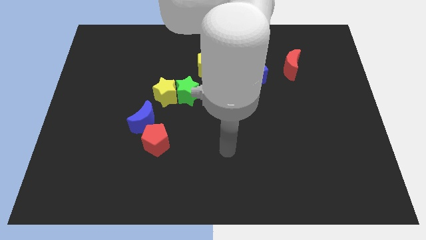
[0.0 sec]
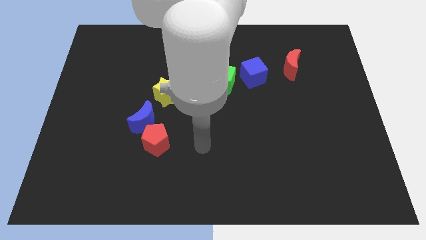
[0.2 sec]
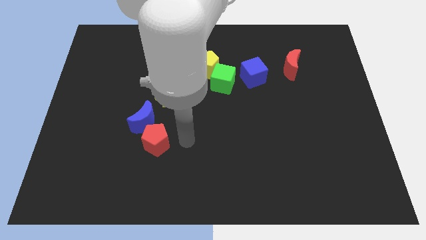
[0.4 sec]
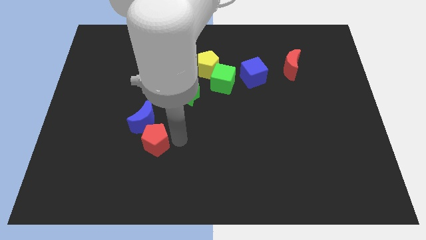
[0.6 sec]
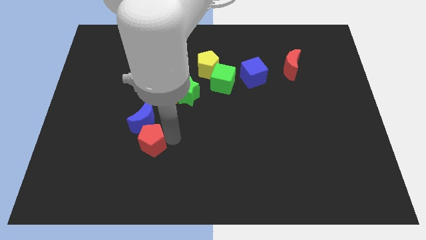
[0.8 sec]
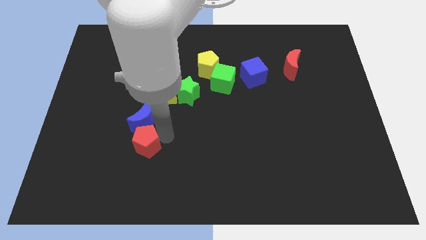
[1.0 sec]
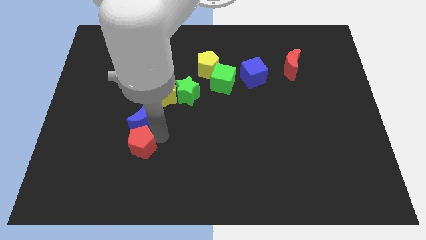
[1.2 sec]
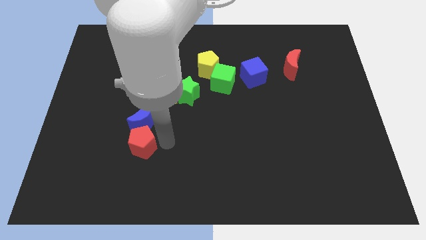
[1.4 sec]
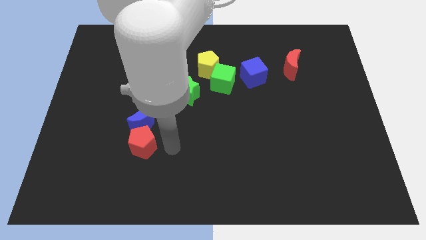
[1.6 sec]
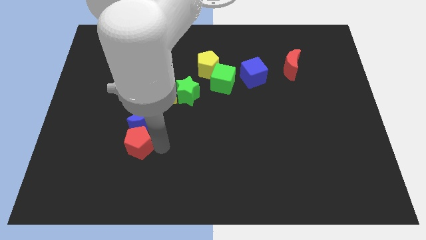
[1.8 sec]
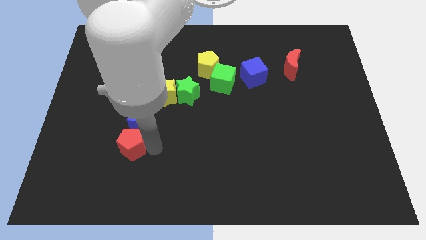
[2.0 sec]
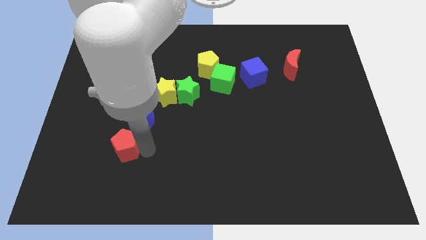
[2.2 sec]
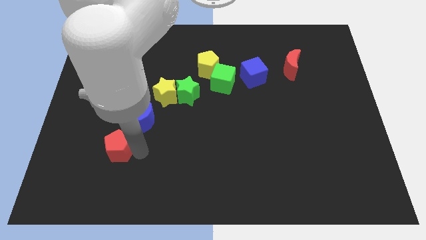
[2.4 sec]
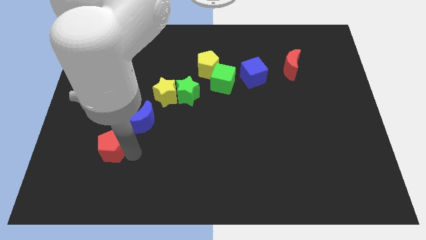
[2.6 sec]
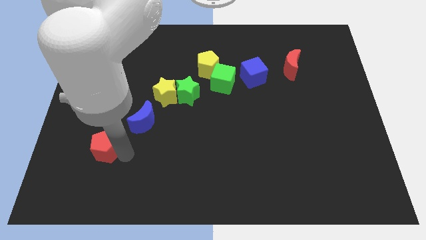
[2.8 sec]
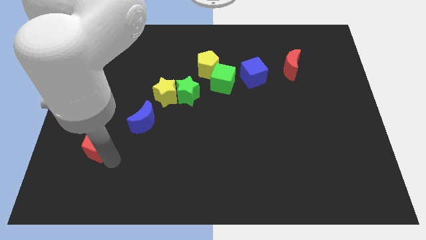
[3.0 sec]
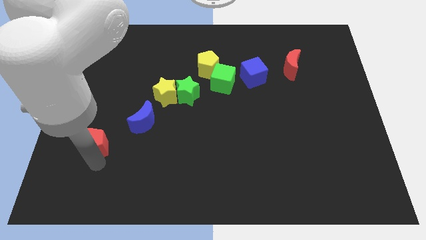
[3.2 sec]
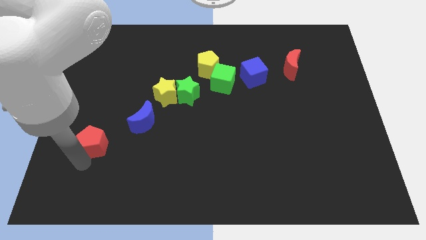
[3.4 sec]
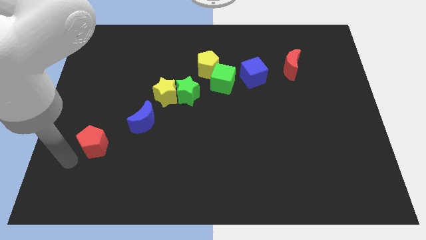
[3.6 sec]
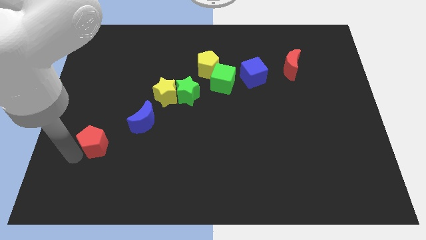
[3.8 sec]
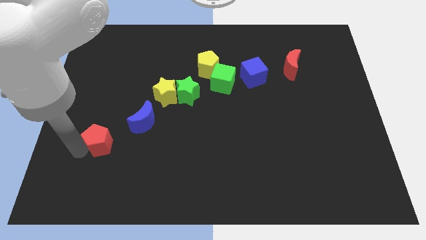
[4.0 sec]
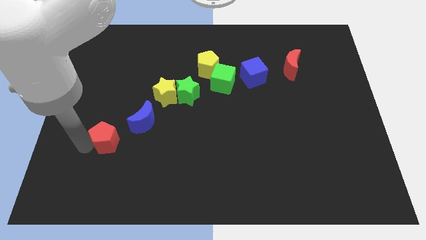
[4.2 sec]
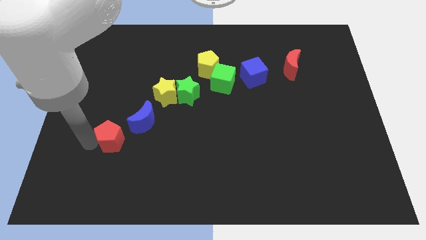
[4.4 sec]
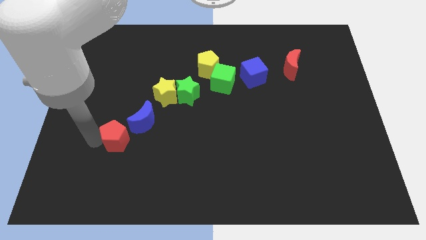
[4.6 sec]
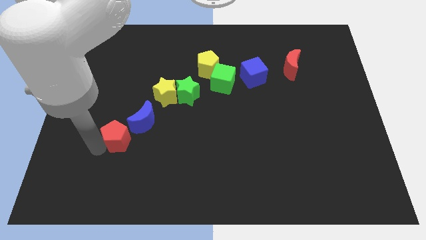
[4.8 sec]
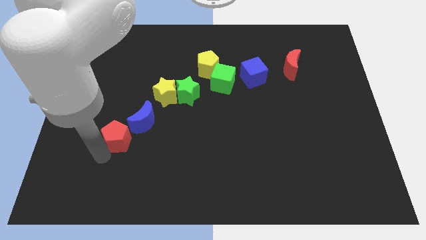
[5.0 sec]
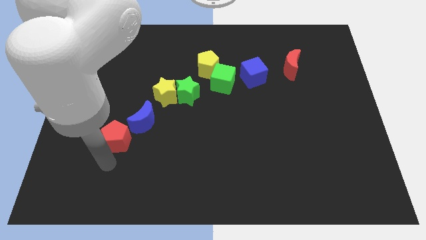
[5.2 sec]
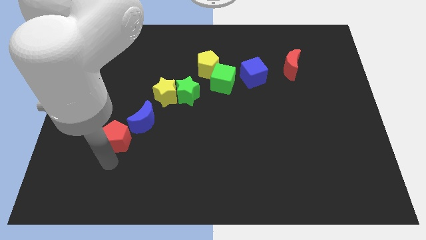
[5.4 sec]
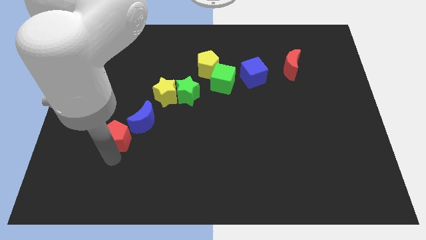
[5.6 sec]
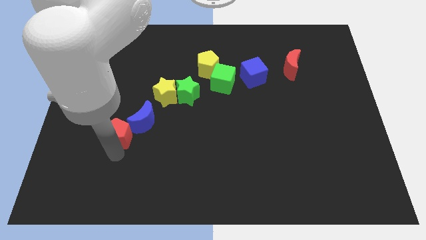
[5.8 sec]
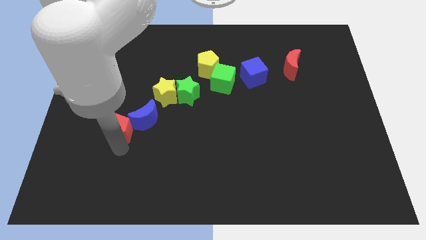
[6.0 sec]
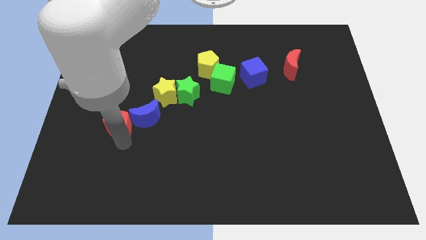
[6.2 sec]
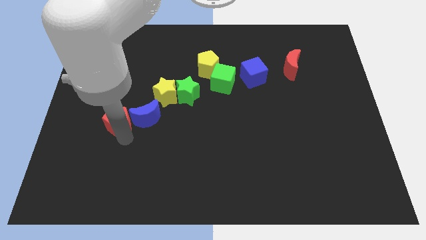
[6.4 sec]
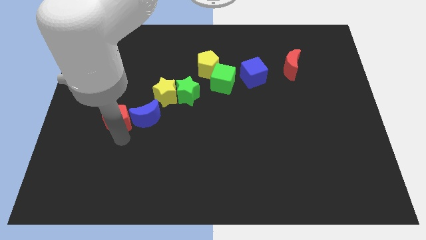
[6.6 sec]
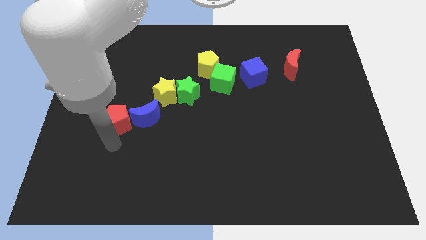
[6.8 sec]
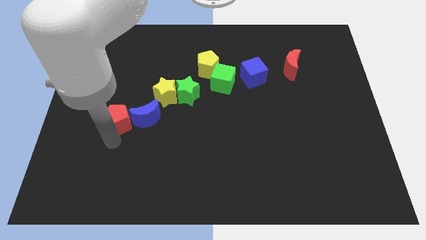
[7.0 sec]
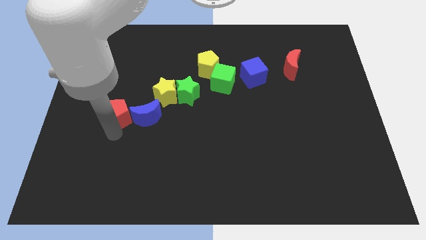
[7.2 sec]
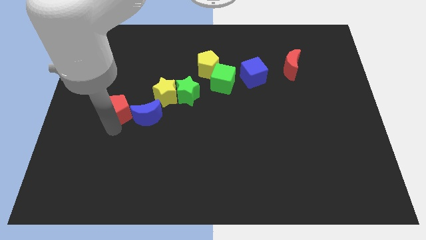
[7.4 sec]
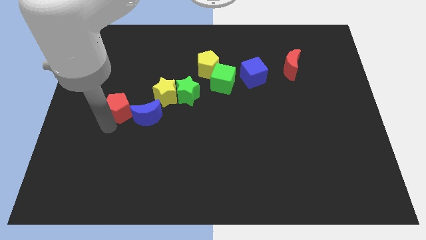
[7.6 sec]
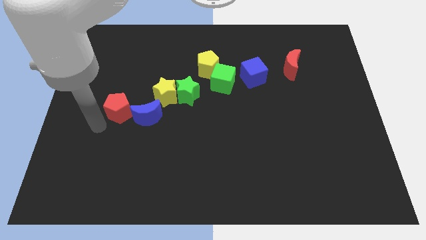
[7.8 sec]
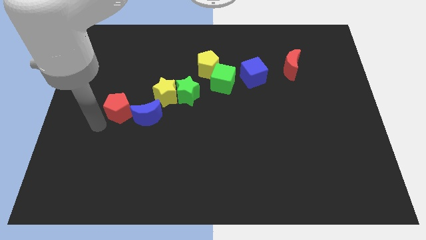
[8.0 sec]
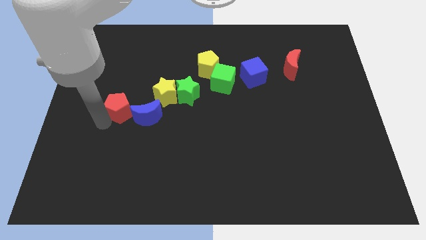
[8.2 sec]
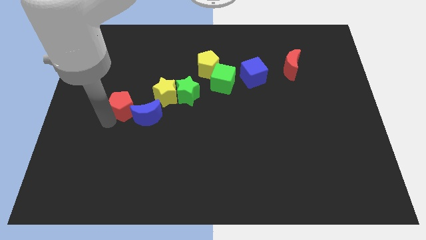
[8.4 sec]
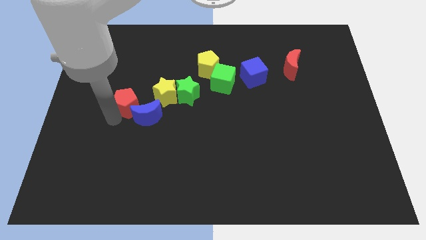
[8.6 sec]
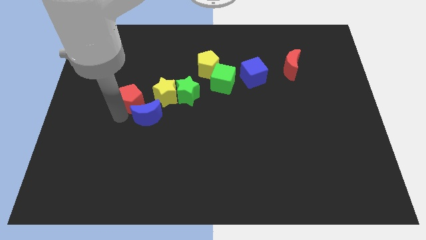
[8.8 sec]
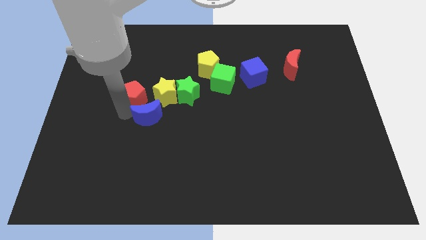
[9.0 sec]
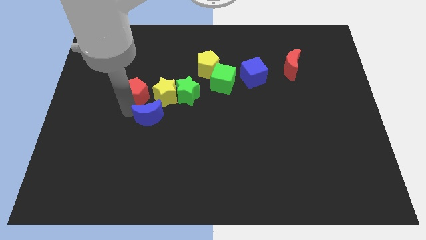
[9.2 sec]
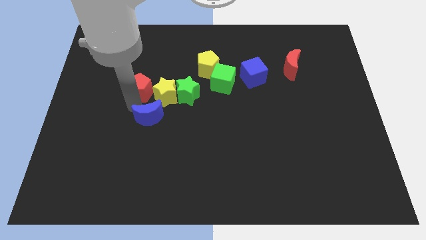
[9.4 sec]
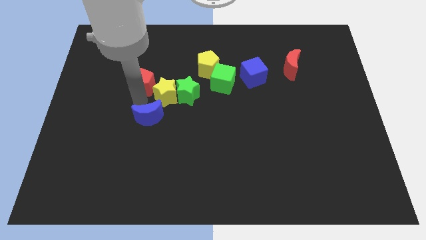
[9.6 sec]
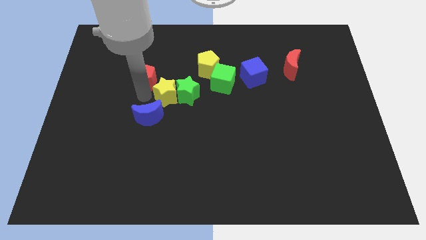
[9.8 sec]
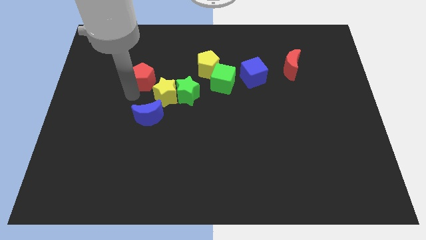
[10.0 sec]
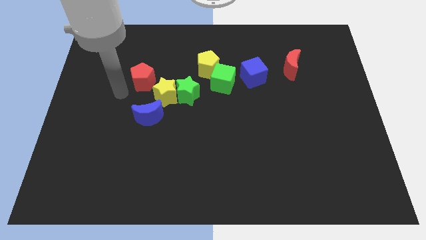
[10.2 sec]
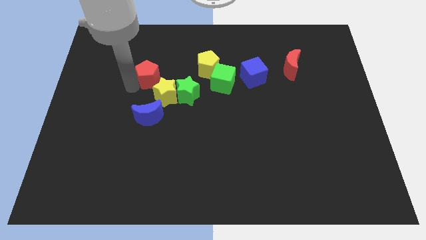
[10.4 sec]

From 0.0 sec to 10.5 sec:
move the red pentagon to the left side of the yellow pentagon
